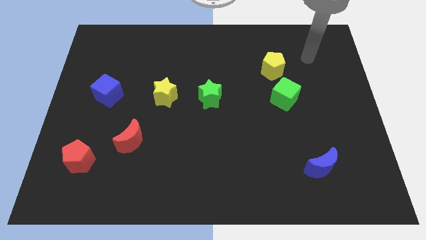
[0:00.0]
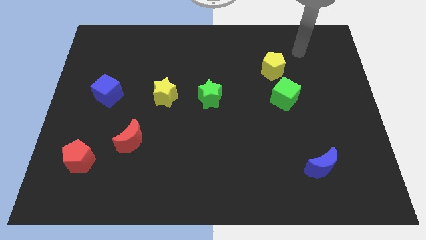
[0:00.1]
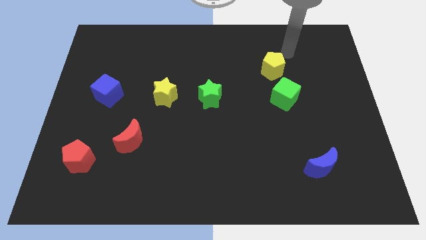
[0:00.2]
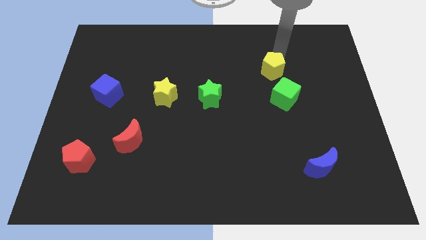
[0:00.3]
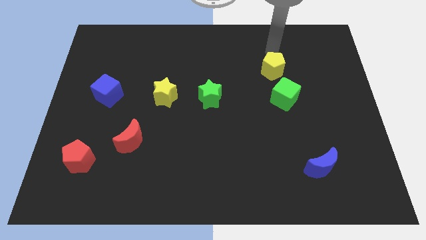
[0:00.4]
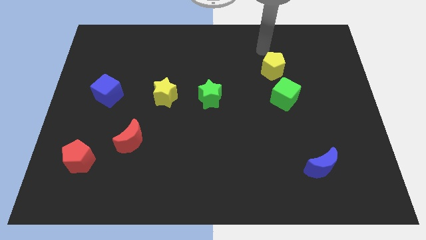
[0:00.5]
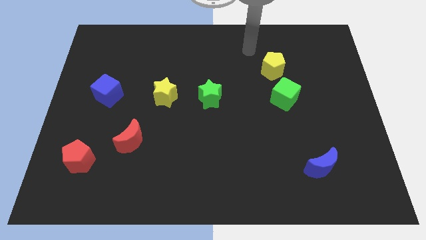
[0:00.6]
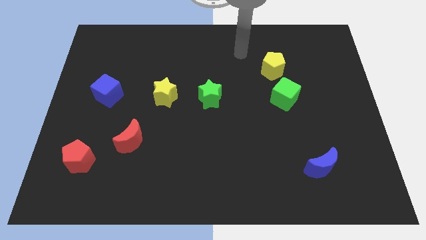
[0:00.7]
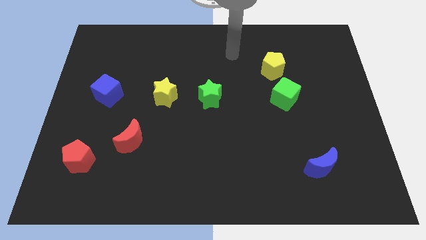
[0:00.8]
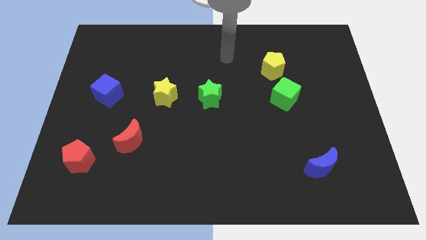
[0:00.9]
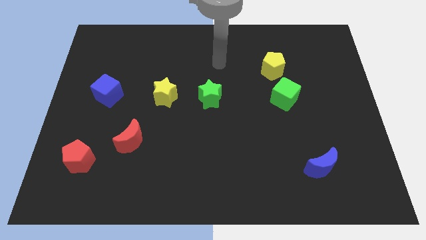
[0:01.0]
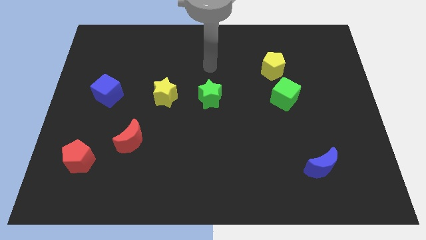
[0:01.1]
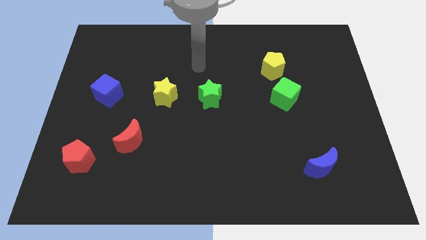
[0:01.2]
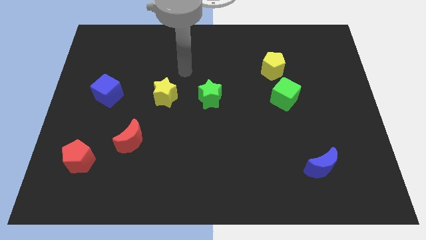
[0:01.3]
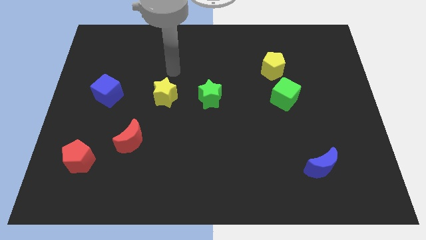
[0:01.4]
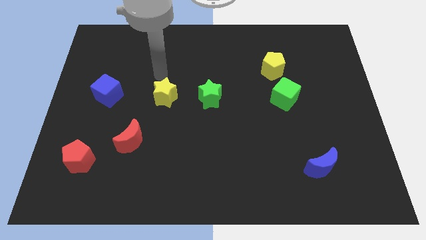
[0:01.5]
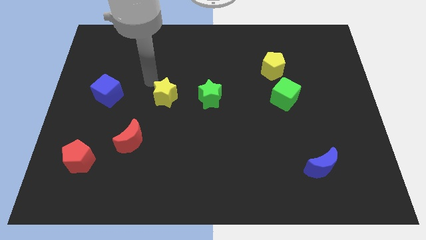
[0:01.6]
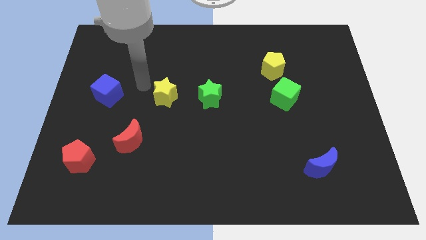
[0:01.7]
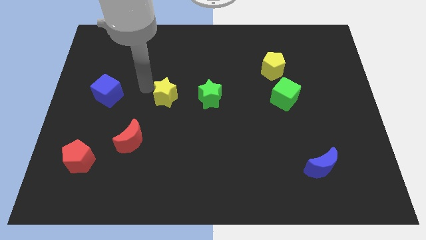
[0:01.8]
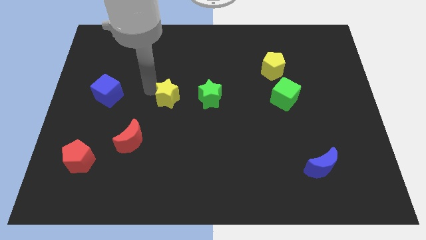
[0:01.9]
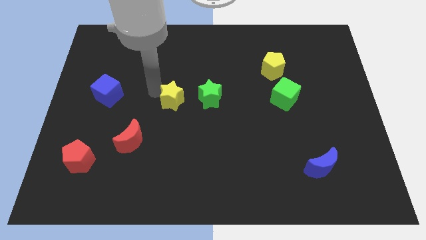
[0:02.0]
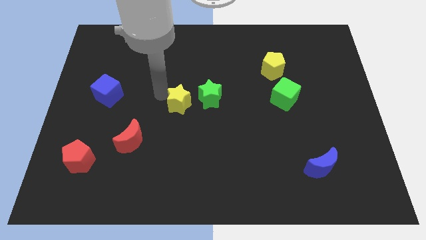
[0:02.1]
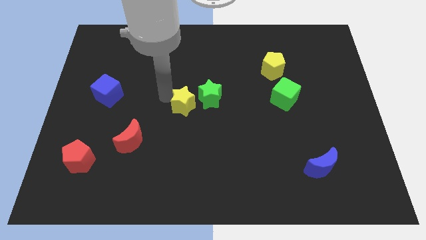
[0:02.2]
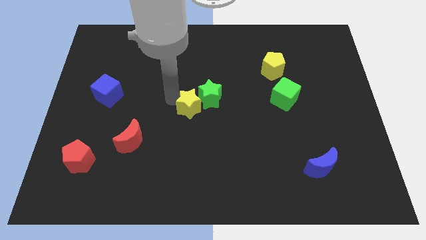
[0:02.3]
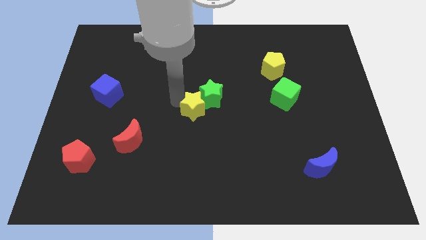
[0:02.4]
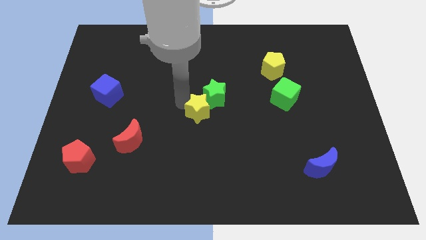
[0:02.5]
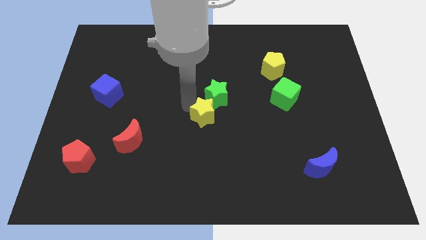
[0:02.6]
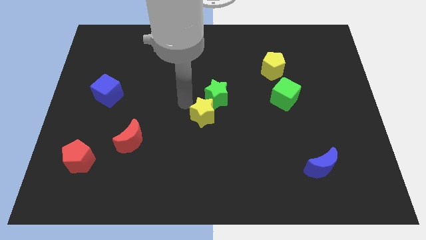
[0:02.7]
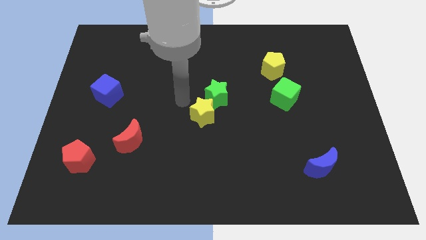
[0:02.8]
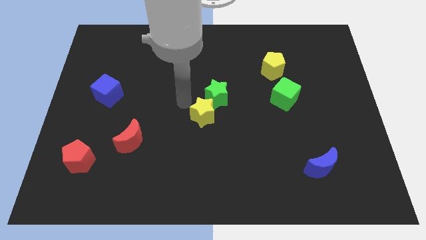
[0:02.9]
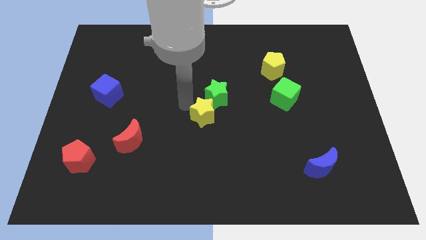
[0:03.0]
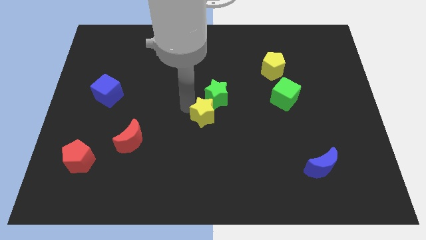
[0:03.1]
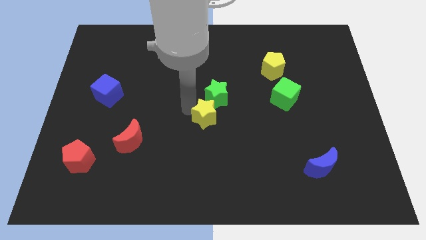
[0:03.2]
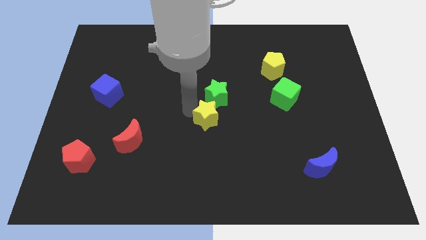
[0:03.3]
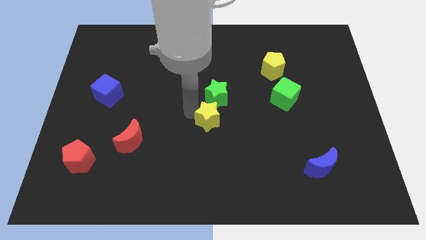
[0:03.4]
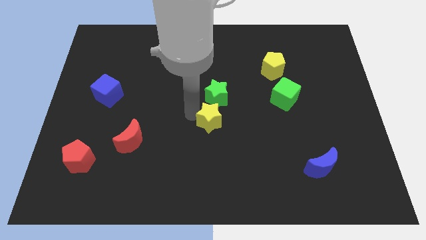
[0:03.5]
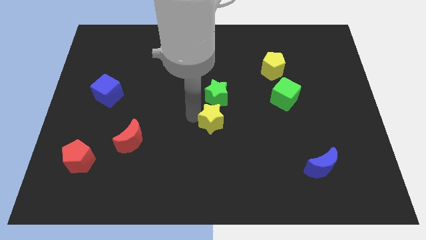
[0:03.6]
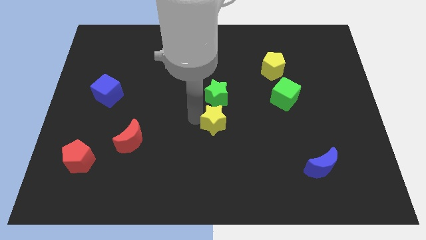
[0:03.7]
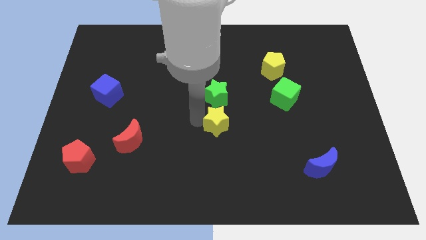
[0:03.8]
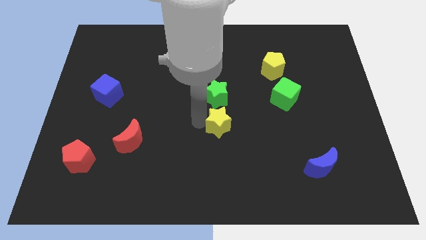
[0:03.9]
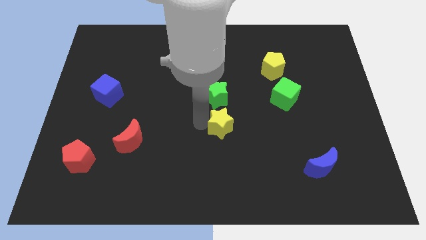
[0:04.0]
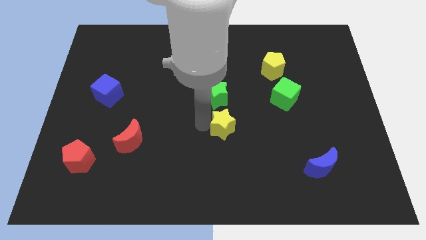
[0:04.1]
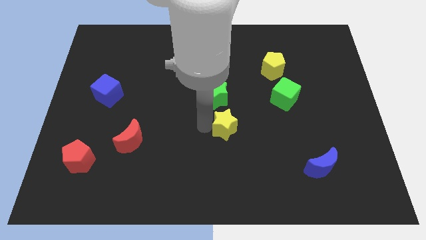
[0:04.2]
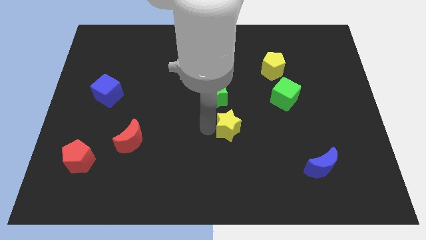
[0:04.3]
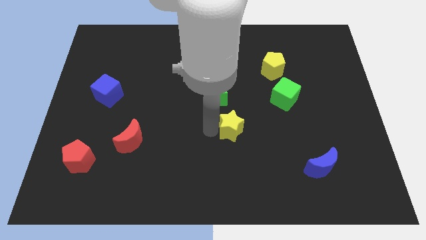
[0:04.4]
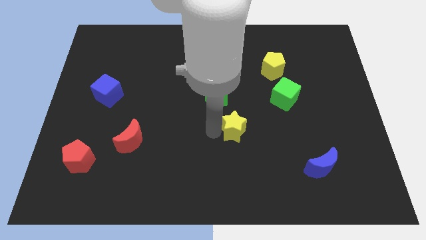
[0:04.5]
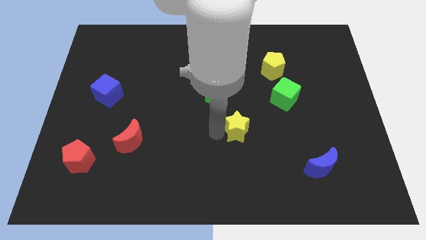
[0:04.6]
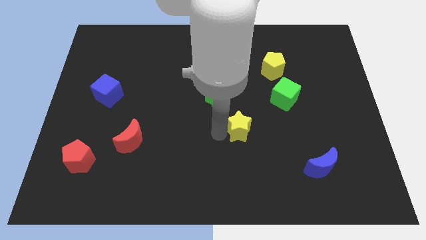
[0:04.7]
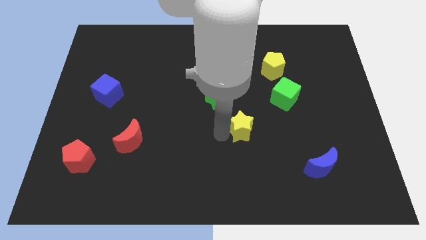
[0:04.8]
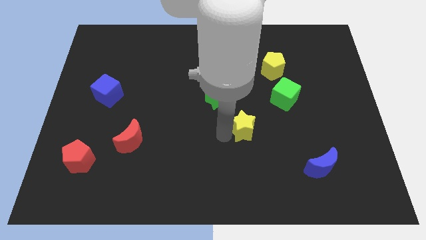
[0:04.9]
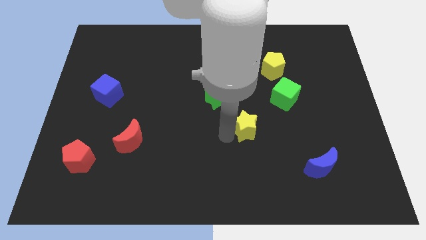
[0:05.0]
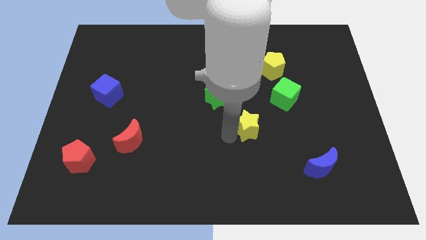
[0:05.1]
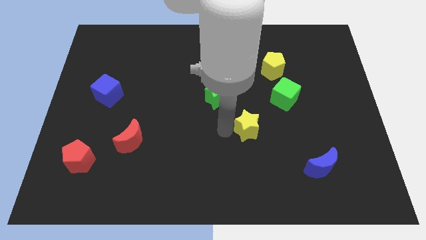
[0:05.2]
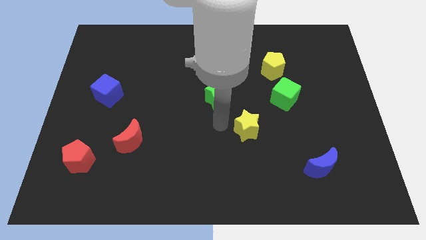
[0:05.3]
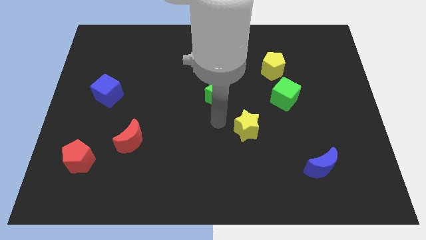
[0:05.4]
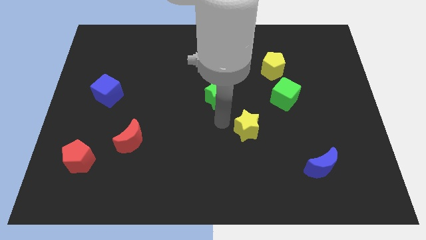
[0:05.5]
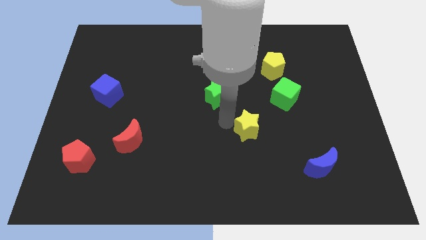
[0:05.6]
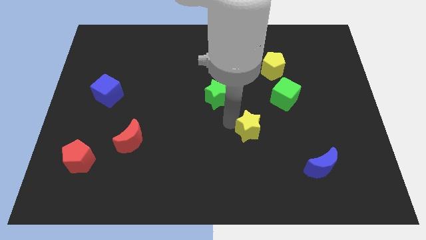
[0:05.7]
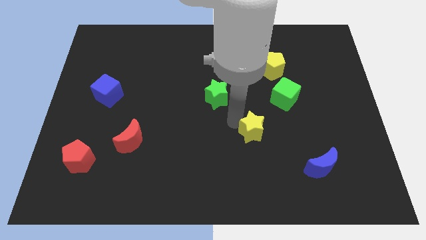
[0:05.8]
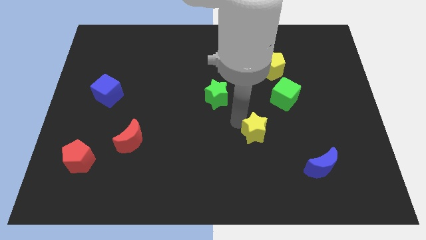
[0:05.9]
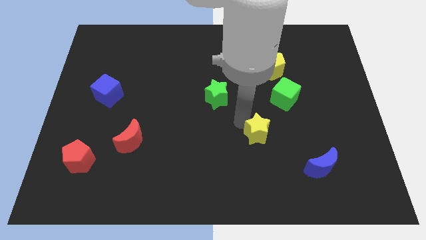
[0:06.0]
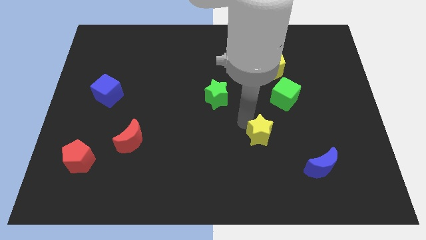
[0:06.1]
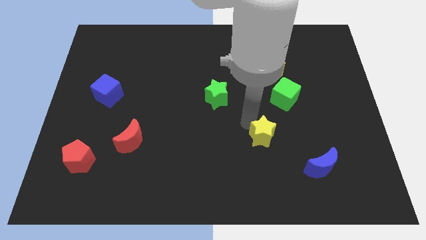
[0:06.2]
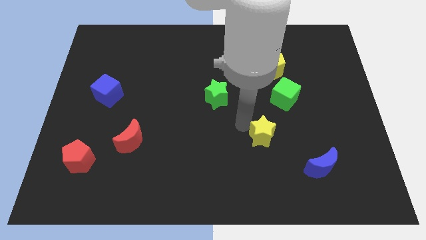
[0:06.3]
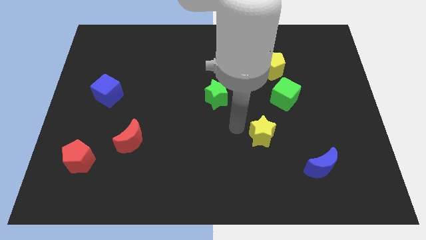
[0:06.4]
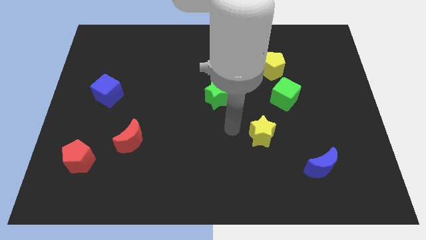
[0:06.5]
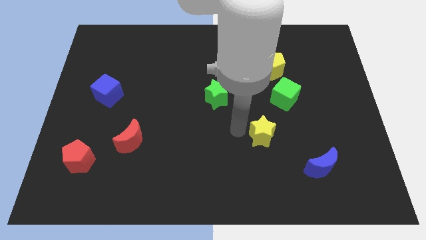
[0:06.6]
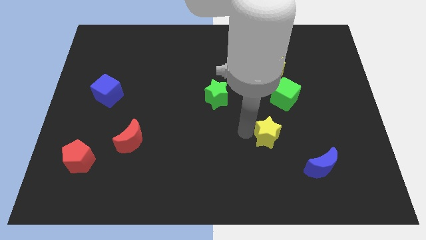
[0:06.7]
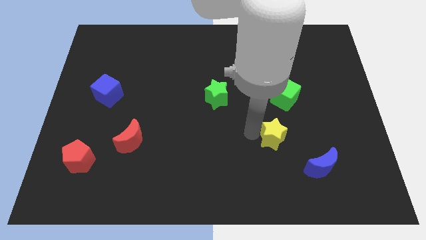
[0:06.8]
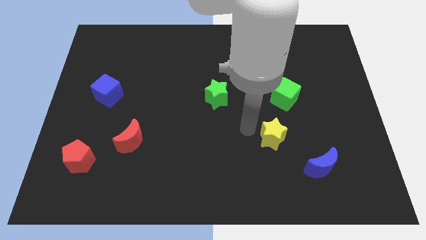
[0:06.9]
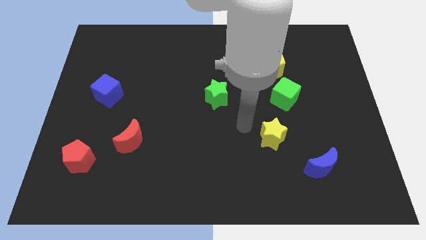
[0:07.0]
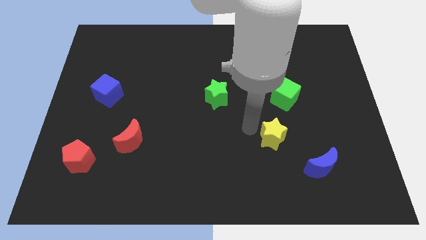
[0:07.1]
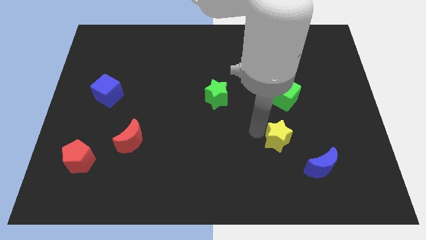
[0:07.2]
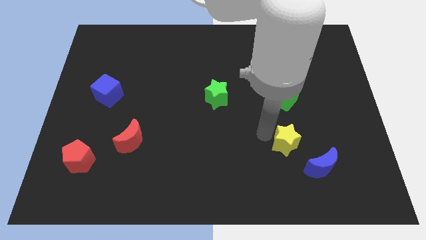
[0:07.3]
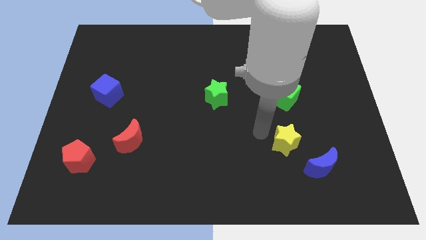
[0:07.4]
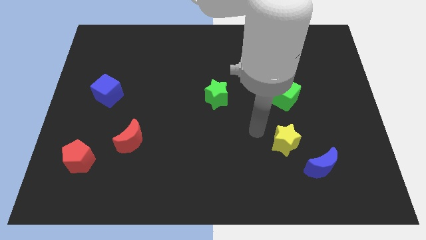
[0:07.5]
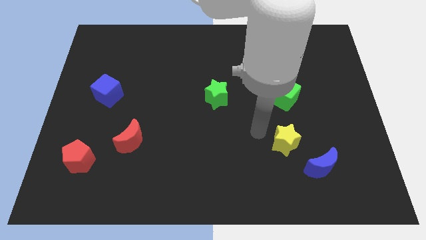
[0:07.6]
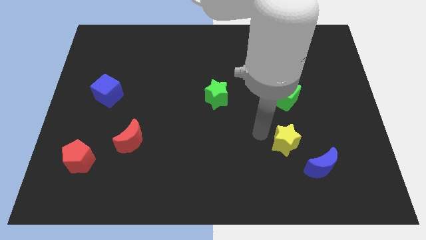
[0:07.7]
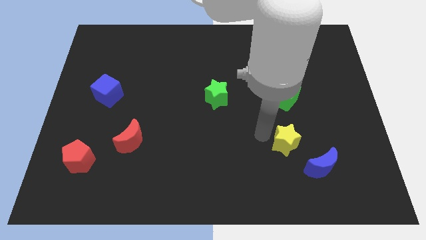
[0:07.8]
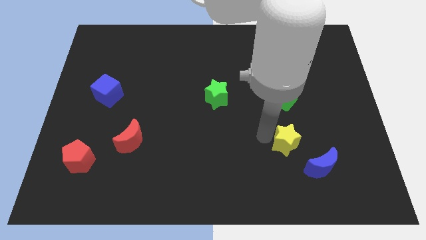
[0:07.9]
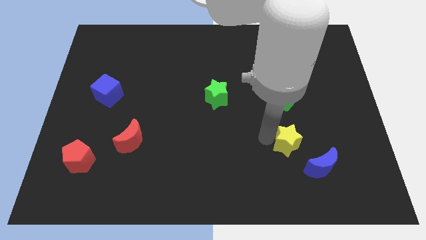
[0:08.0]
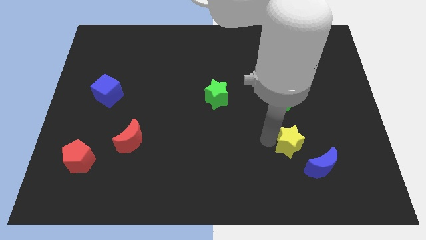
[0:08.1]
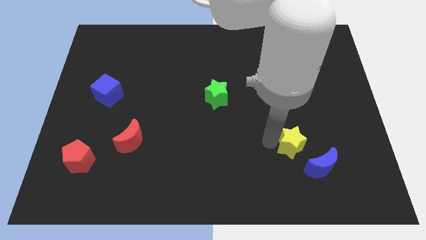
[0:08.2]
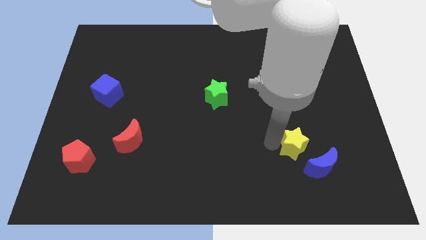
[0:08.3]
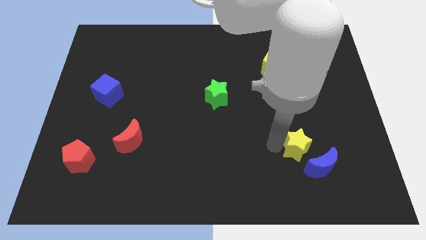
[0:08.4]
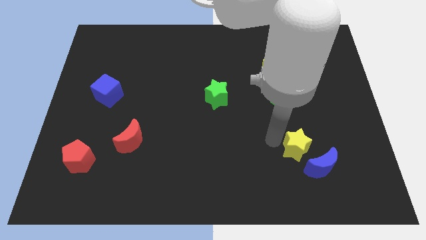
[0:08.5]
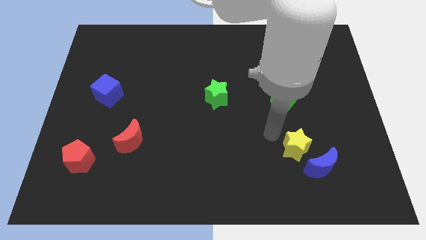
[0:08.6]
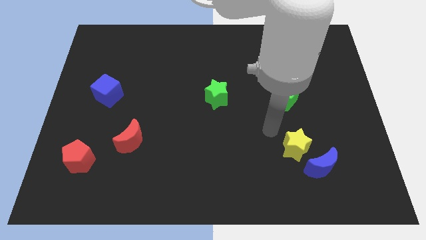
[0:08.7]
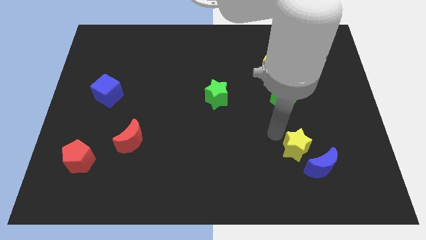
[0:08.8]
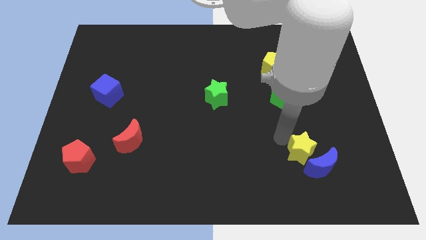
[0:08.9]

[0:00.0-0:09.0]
move the yellow star next to the blue moon
